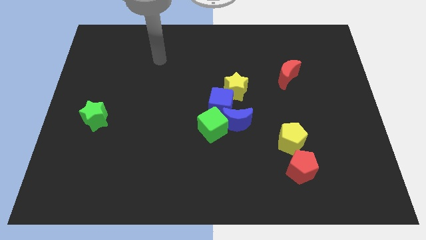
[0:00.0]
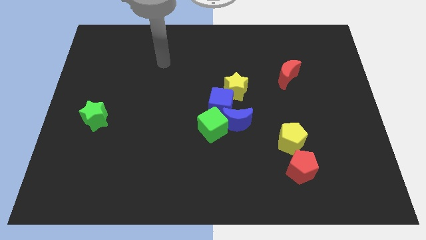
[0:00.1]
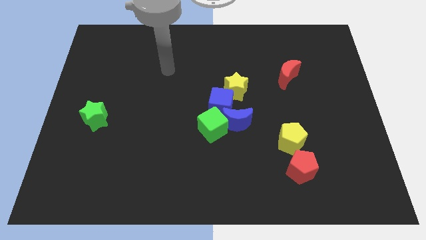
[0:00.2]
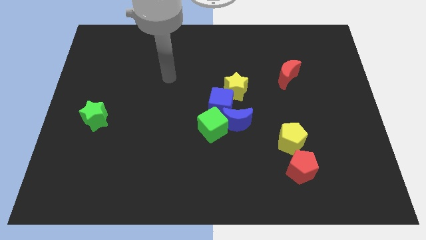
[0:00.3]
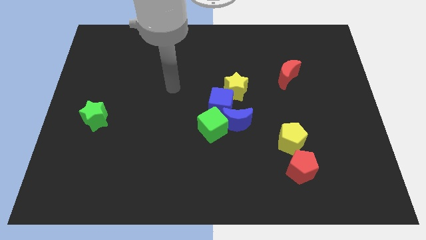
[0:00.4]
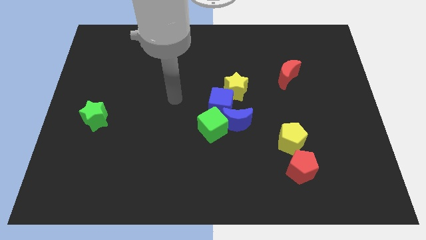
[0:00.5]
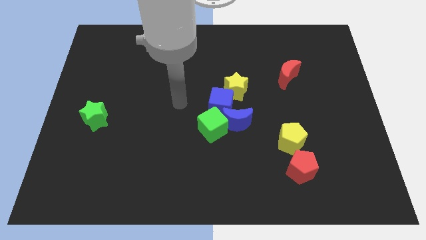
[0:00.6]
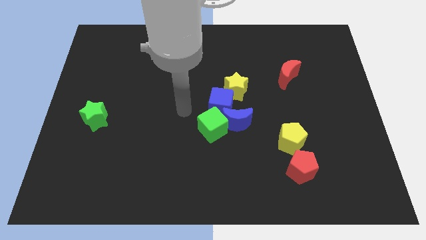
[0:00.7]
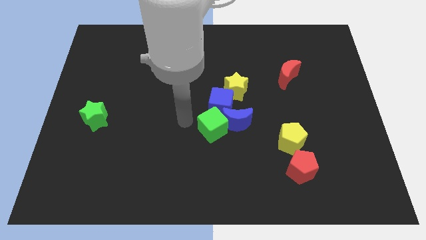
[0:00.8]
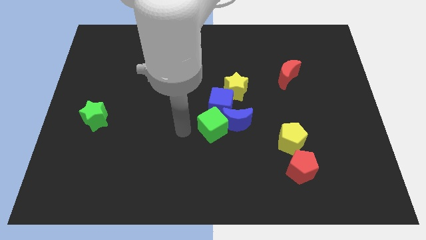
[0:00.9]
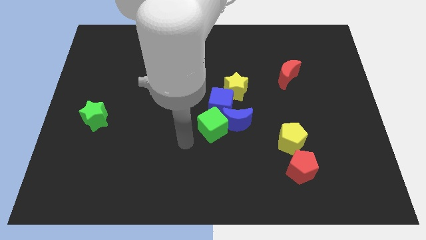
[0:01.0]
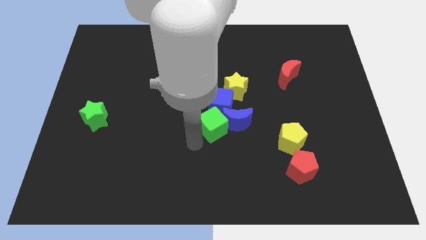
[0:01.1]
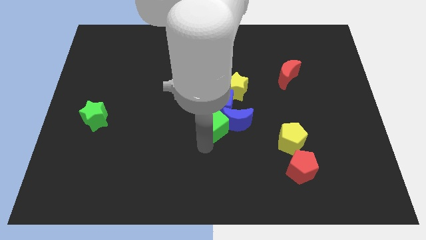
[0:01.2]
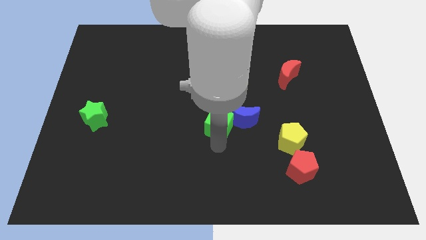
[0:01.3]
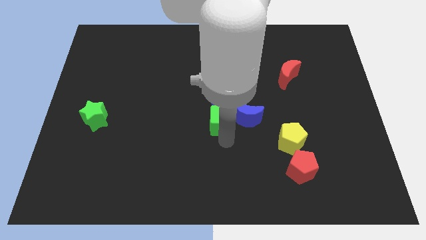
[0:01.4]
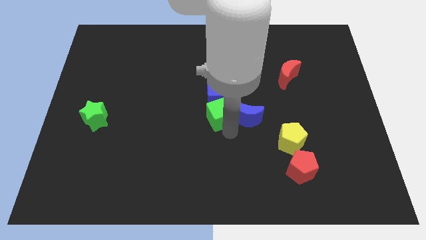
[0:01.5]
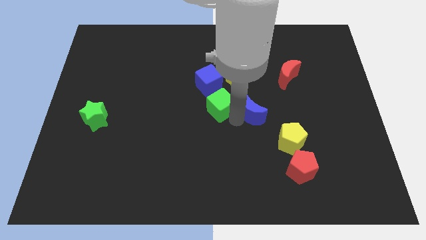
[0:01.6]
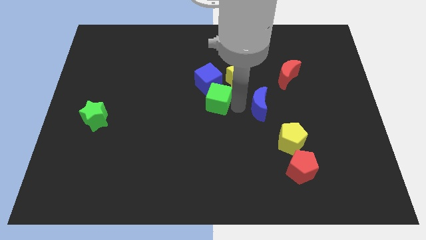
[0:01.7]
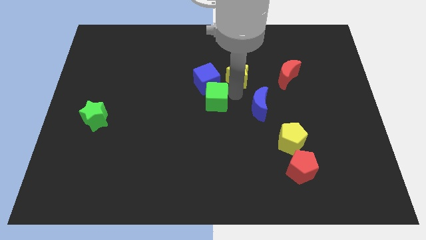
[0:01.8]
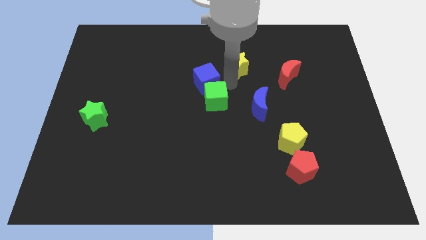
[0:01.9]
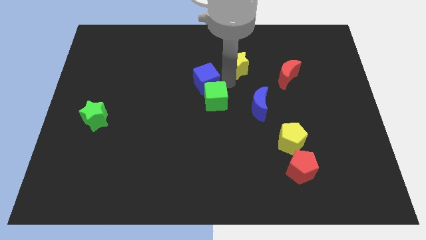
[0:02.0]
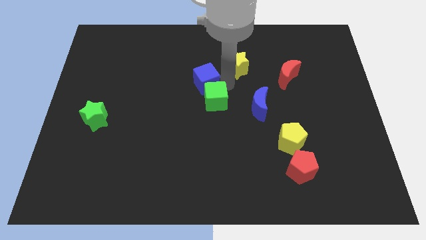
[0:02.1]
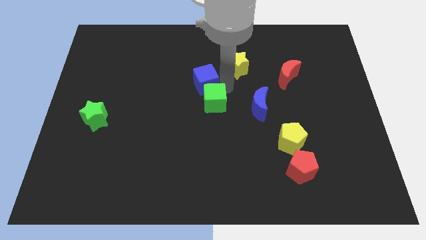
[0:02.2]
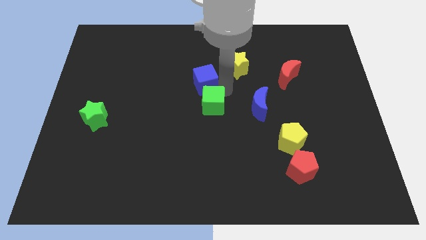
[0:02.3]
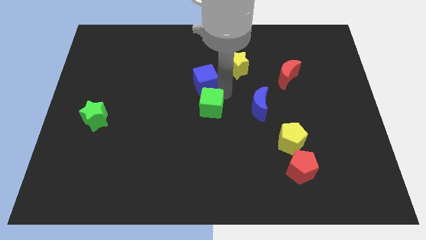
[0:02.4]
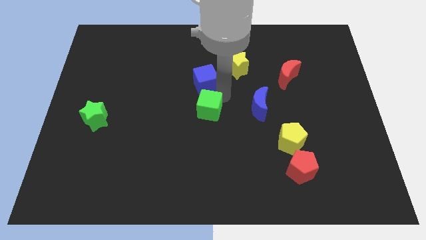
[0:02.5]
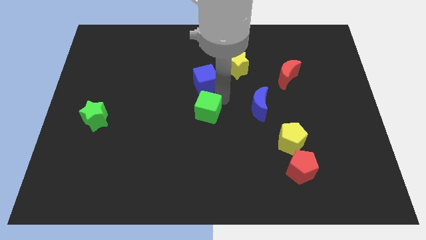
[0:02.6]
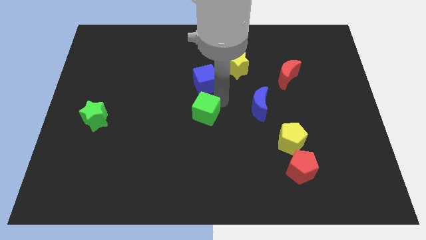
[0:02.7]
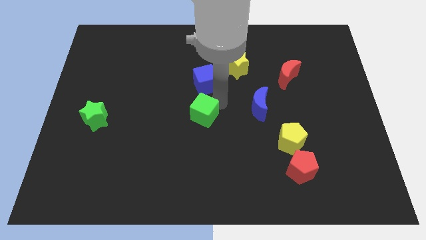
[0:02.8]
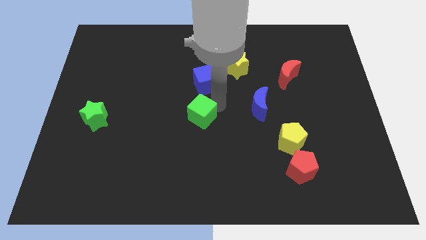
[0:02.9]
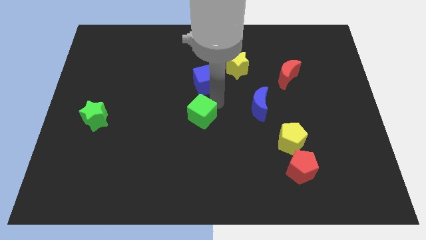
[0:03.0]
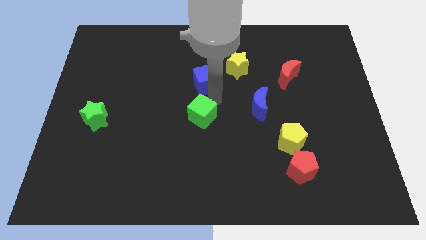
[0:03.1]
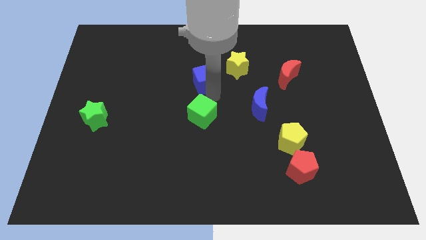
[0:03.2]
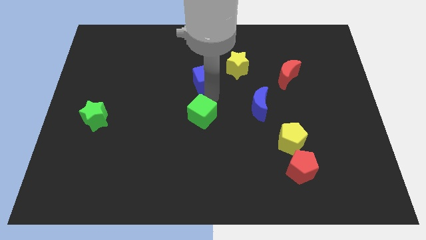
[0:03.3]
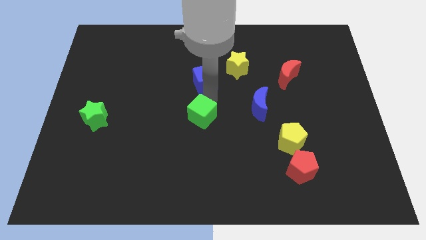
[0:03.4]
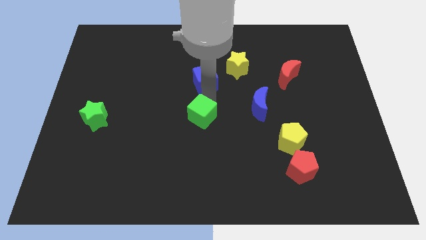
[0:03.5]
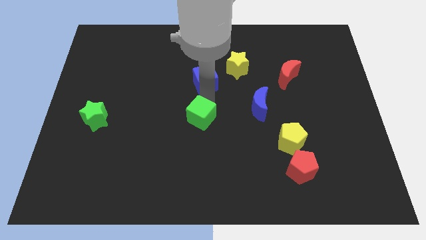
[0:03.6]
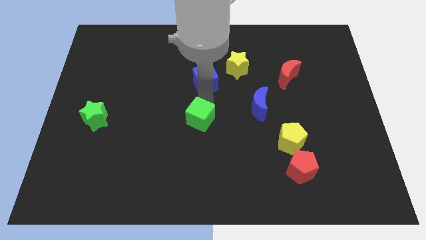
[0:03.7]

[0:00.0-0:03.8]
separate the green cube from the blue moon and blue cube

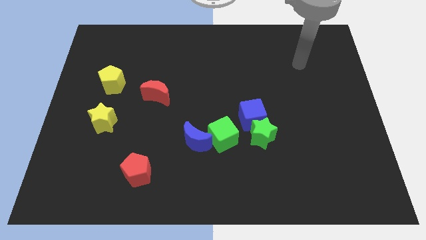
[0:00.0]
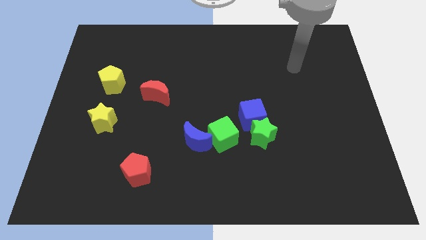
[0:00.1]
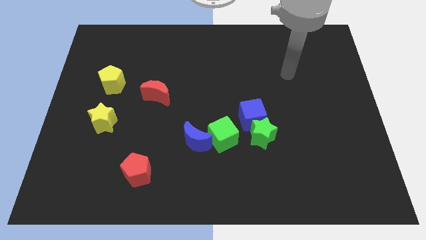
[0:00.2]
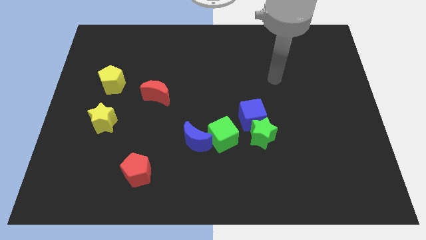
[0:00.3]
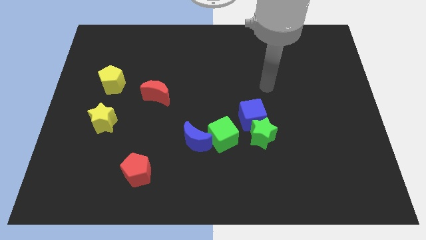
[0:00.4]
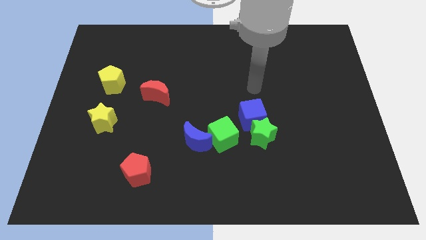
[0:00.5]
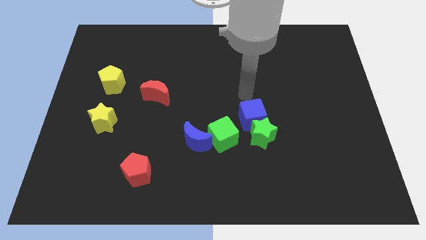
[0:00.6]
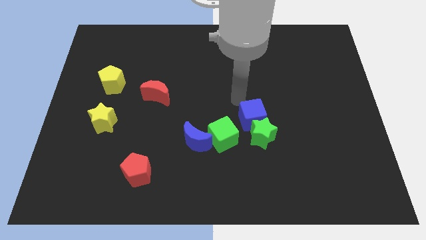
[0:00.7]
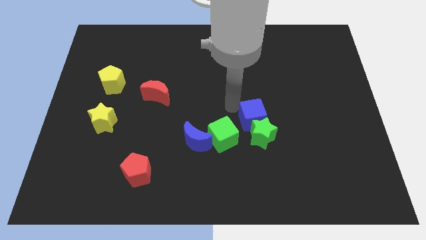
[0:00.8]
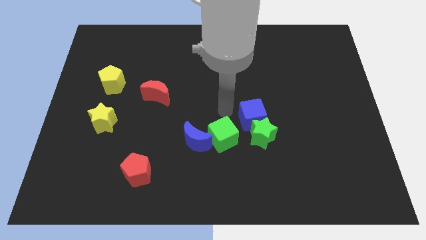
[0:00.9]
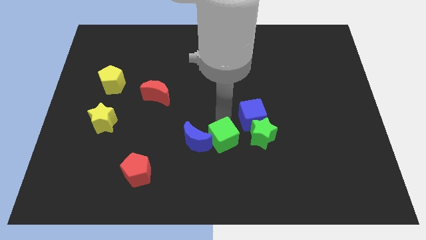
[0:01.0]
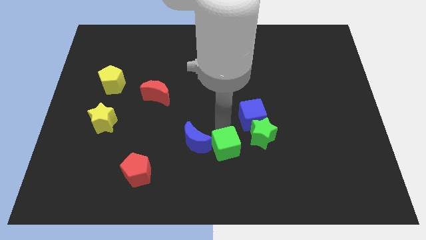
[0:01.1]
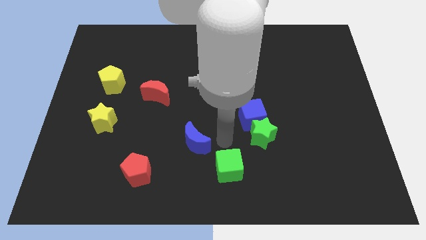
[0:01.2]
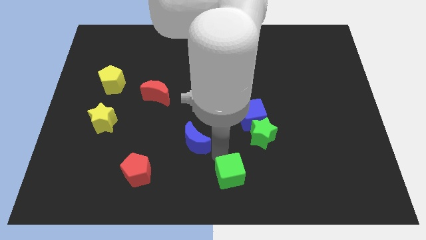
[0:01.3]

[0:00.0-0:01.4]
move the blue moon away from the green cube

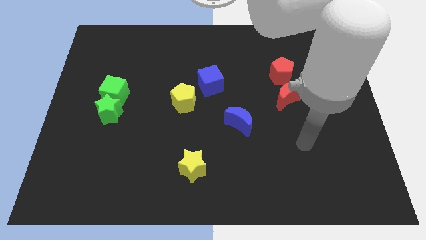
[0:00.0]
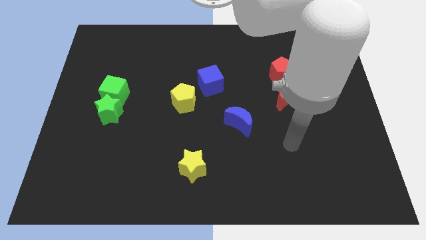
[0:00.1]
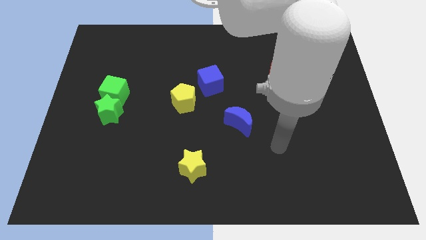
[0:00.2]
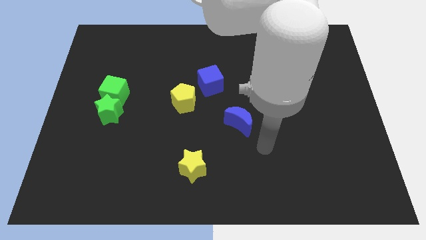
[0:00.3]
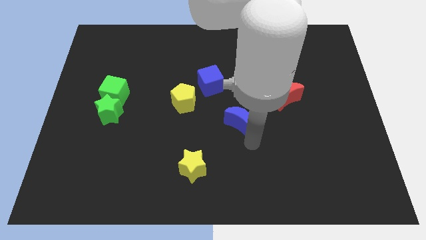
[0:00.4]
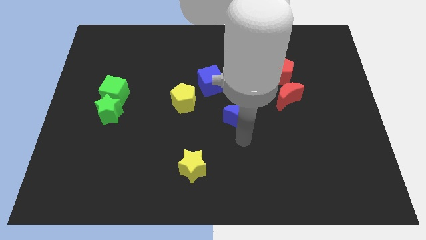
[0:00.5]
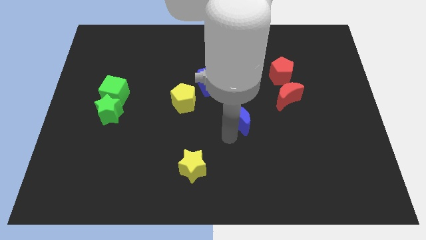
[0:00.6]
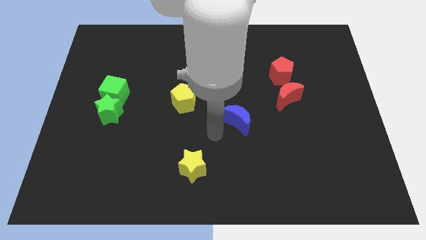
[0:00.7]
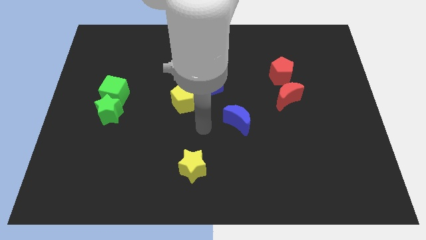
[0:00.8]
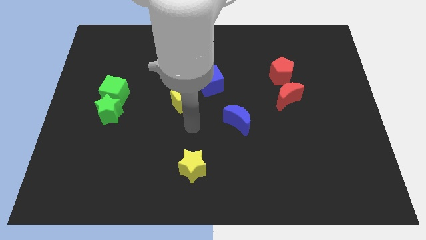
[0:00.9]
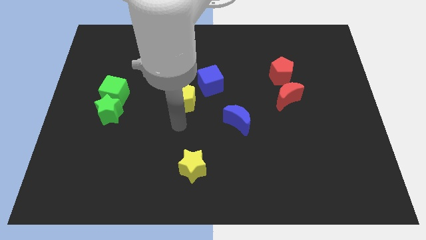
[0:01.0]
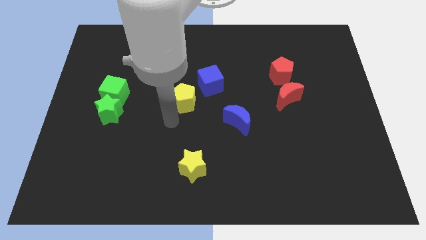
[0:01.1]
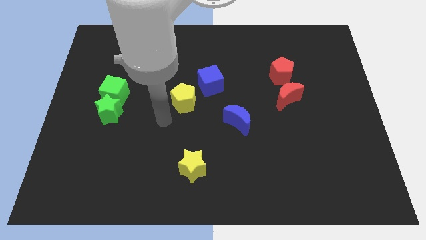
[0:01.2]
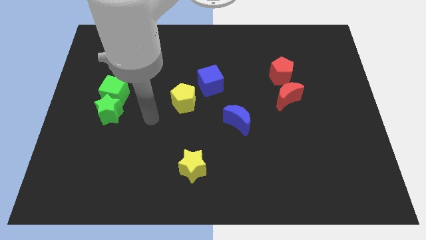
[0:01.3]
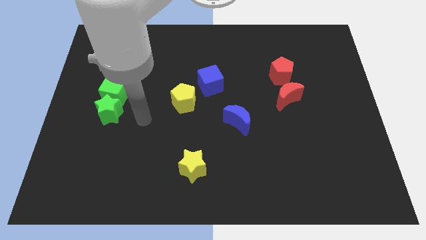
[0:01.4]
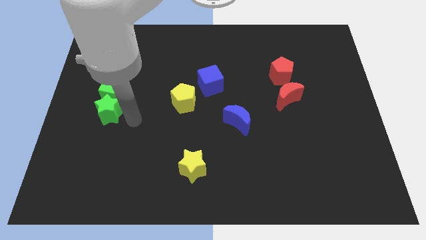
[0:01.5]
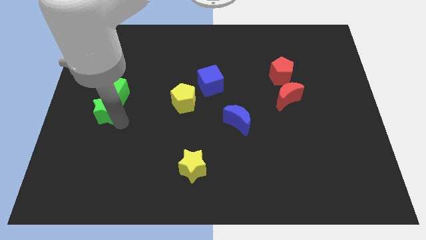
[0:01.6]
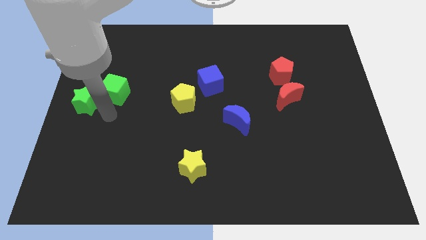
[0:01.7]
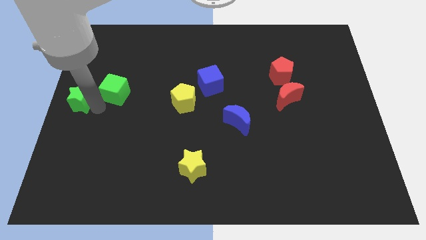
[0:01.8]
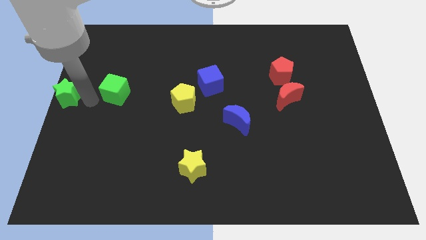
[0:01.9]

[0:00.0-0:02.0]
move the green cube away from the green star

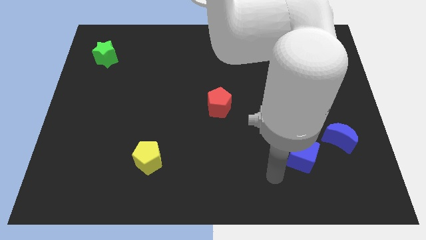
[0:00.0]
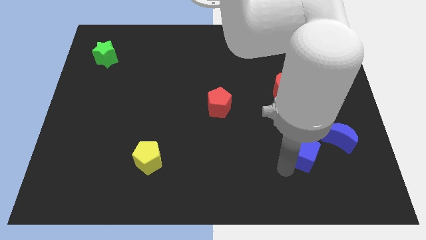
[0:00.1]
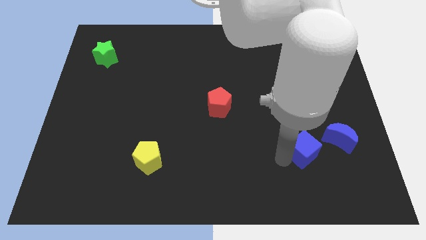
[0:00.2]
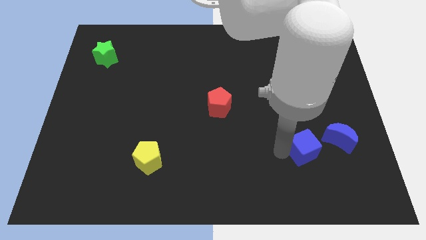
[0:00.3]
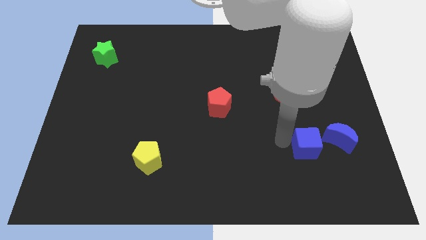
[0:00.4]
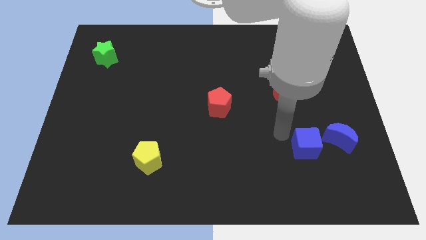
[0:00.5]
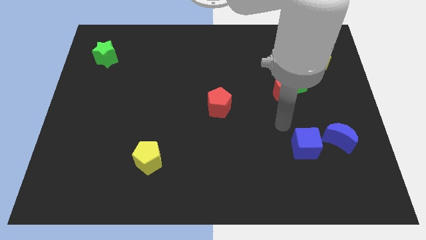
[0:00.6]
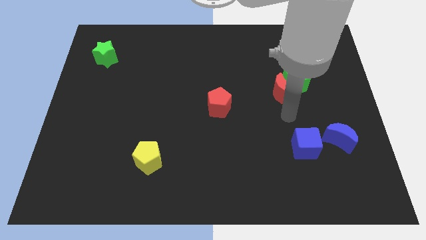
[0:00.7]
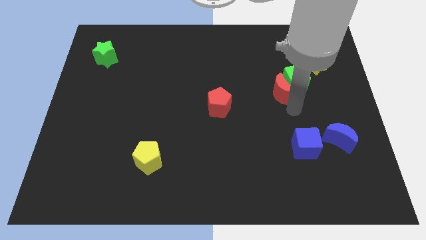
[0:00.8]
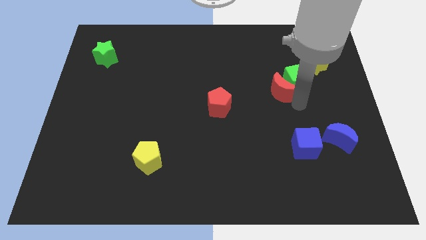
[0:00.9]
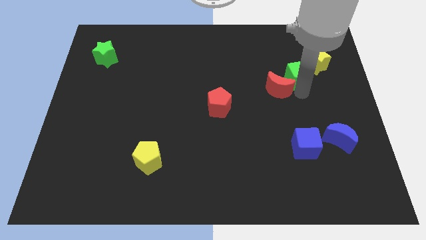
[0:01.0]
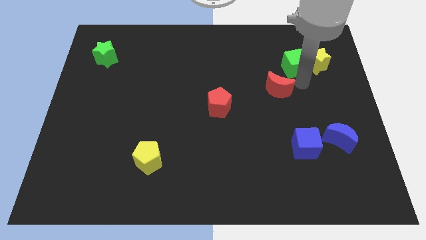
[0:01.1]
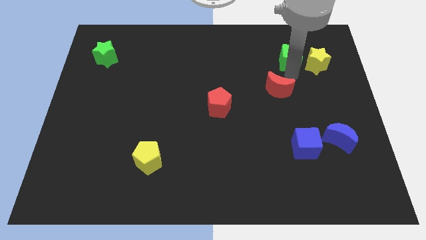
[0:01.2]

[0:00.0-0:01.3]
separate the red moon from the green cube

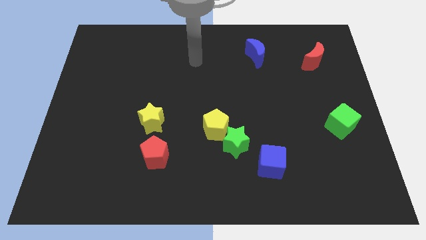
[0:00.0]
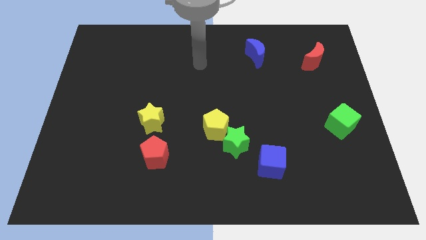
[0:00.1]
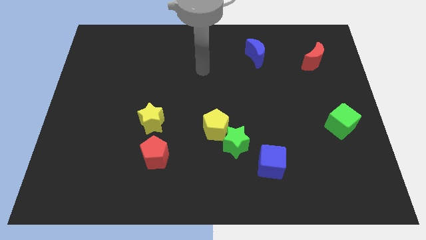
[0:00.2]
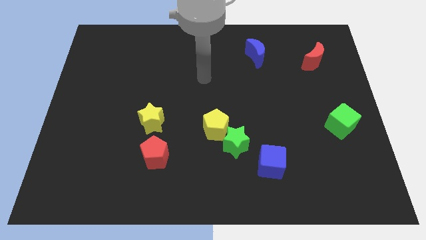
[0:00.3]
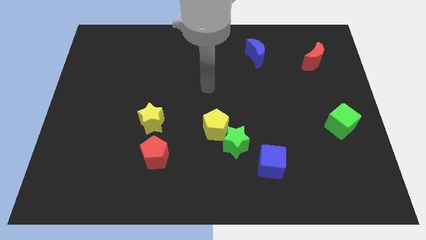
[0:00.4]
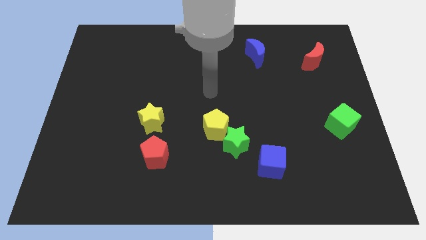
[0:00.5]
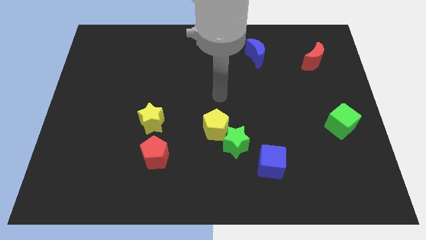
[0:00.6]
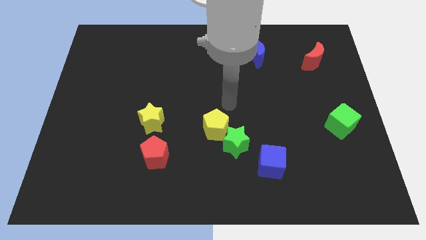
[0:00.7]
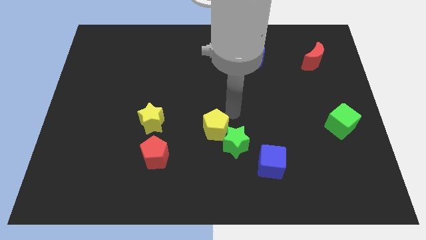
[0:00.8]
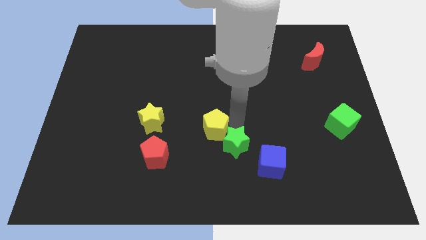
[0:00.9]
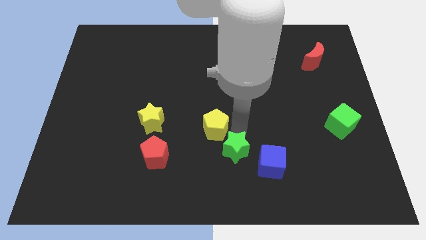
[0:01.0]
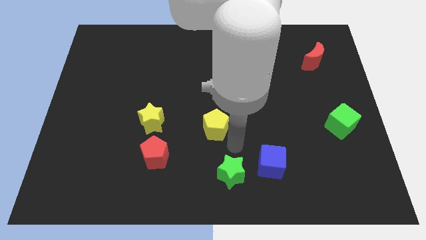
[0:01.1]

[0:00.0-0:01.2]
move the yellow pentagon away from the green star
